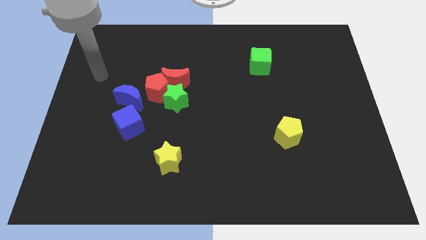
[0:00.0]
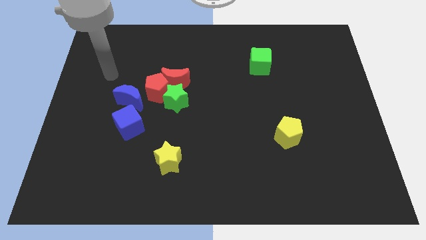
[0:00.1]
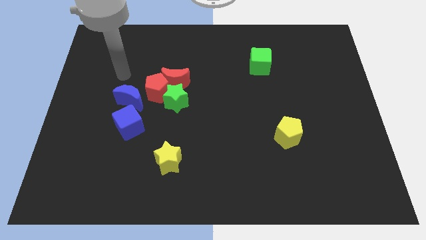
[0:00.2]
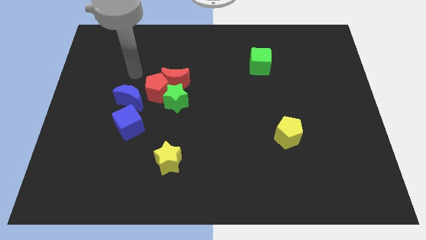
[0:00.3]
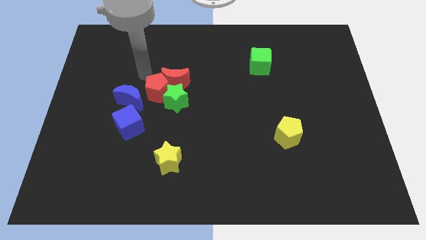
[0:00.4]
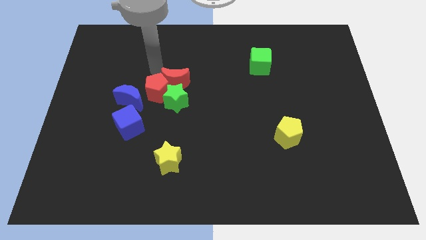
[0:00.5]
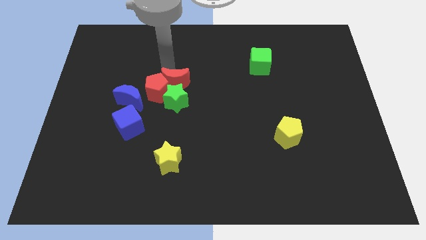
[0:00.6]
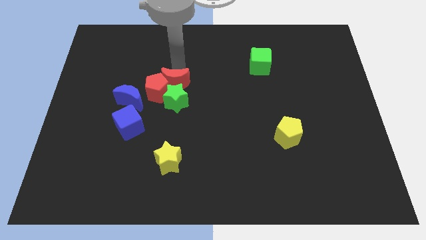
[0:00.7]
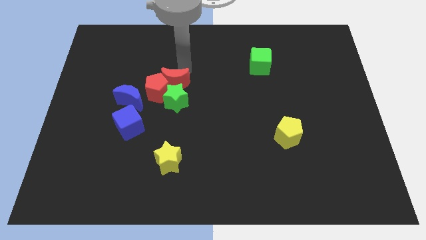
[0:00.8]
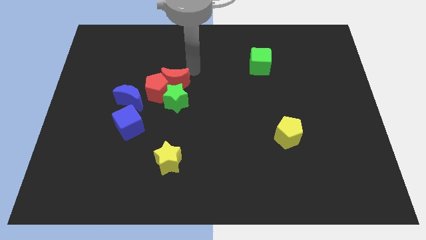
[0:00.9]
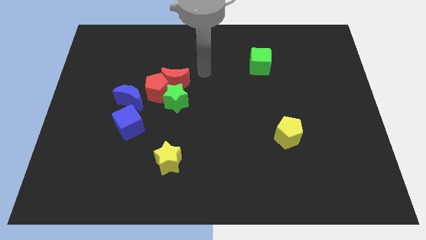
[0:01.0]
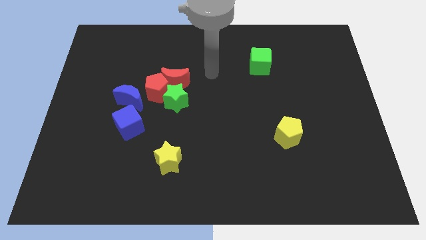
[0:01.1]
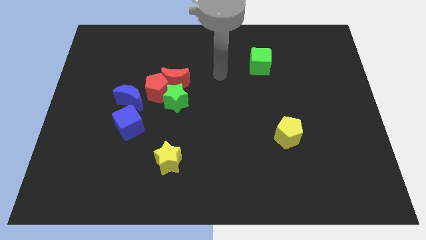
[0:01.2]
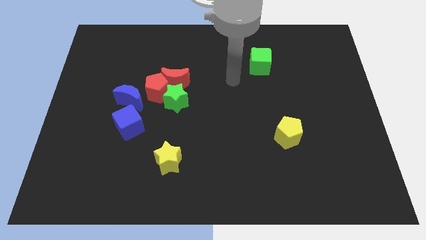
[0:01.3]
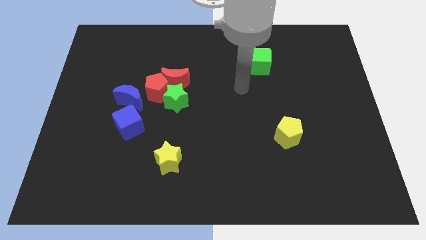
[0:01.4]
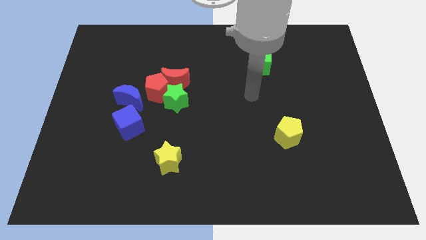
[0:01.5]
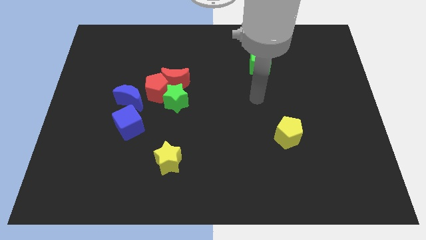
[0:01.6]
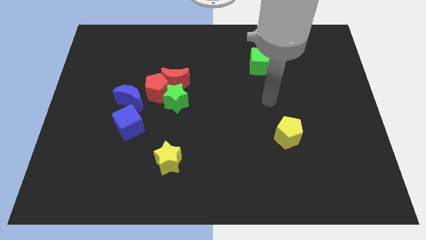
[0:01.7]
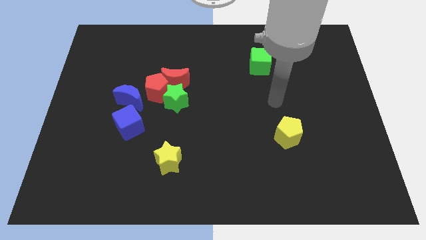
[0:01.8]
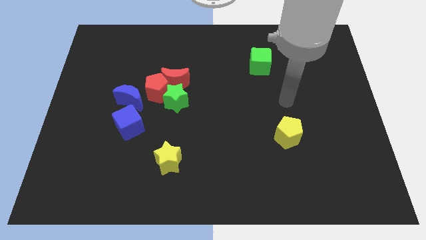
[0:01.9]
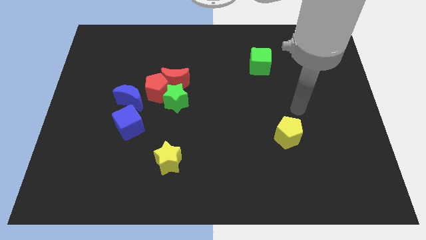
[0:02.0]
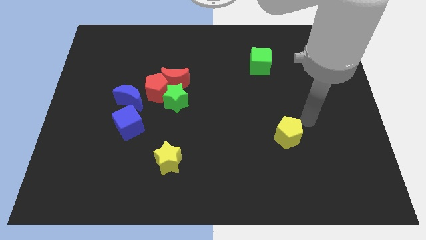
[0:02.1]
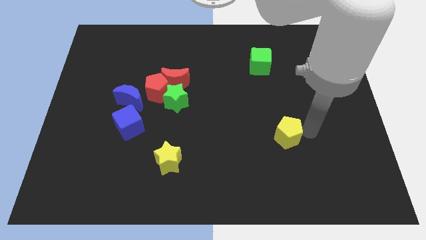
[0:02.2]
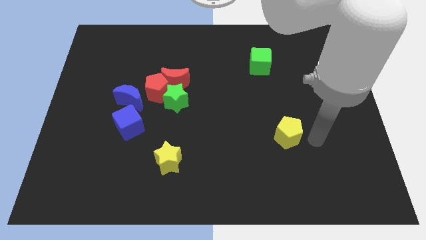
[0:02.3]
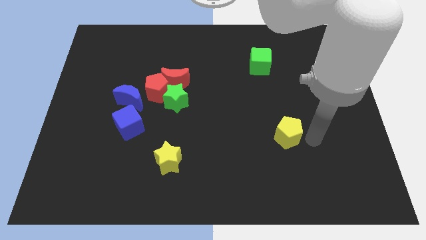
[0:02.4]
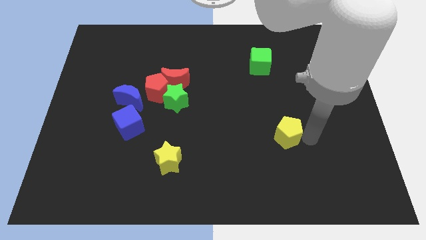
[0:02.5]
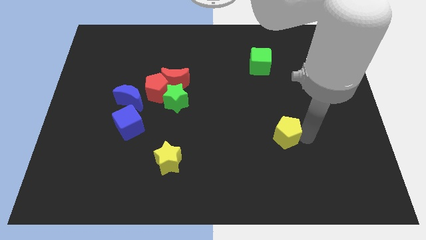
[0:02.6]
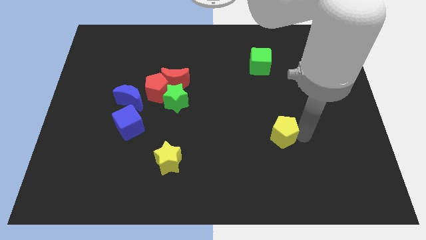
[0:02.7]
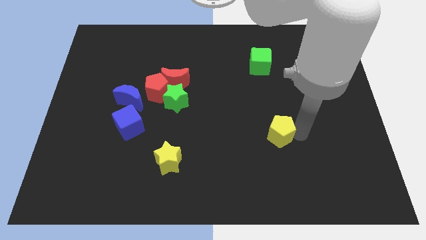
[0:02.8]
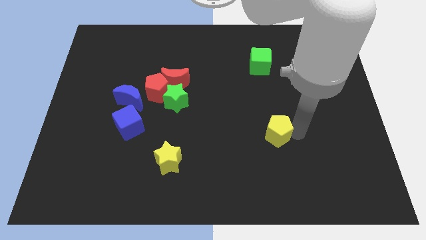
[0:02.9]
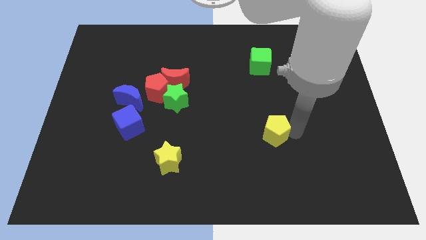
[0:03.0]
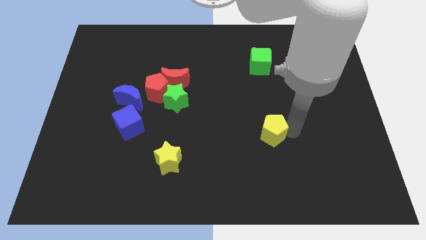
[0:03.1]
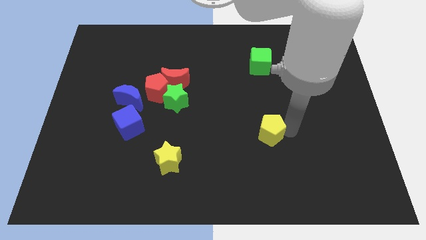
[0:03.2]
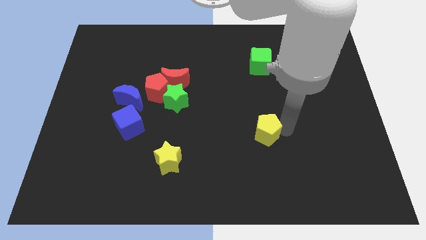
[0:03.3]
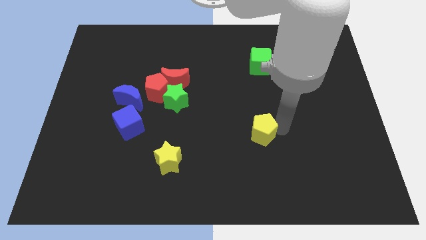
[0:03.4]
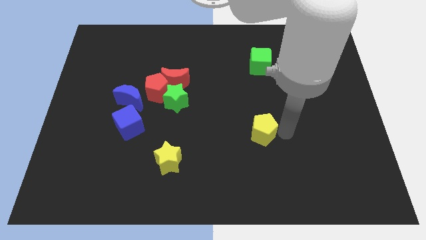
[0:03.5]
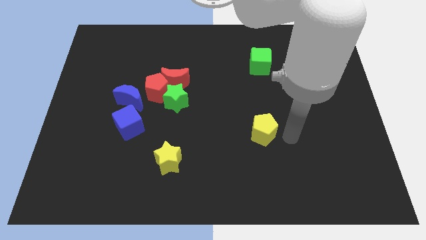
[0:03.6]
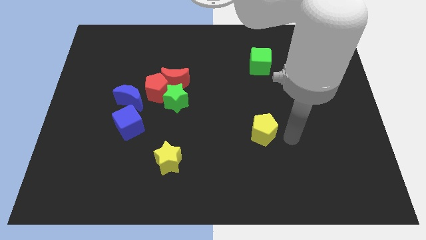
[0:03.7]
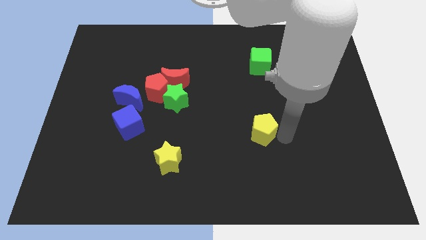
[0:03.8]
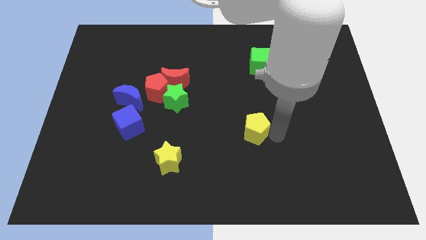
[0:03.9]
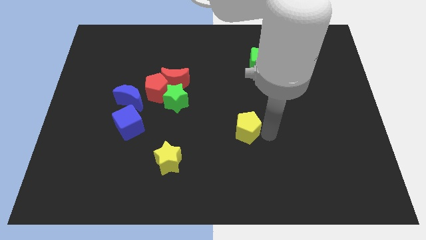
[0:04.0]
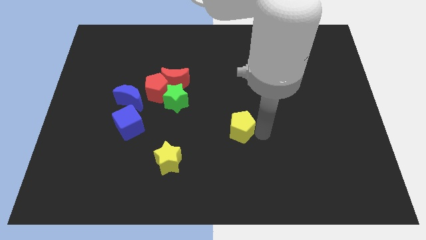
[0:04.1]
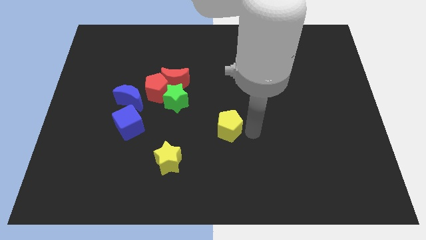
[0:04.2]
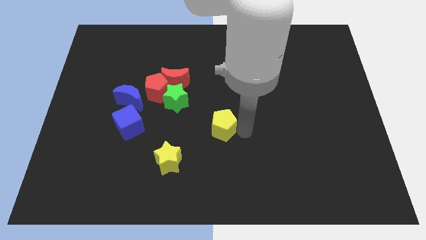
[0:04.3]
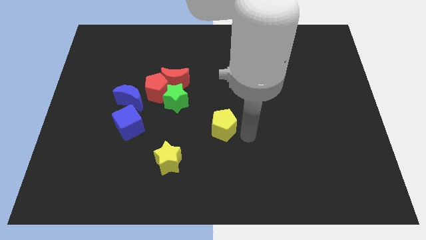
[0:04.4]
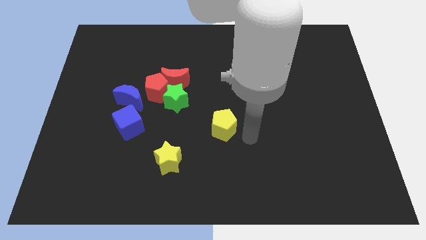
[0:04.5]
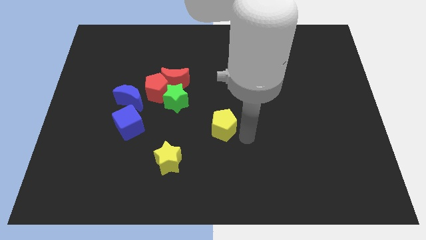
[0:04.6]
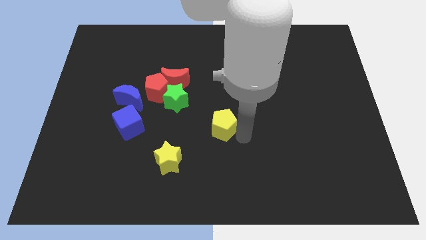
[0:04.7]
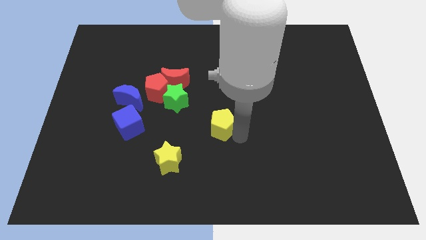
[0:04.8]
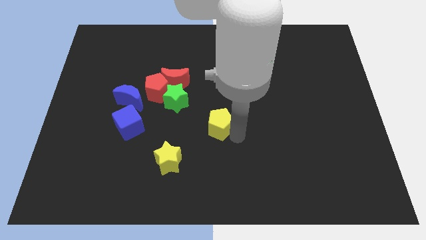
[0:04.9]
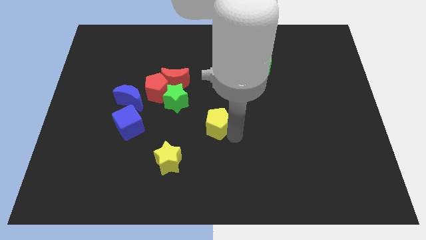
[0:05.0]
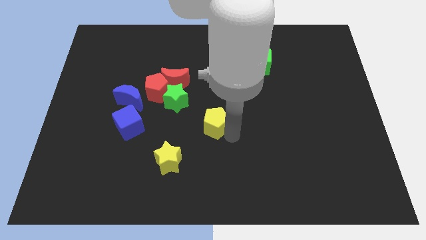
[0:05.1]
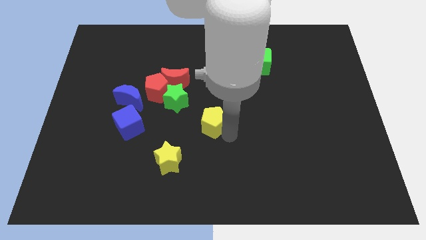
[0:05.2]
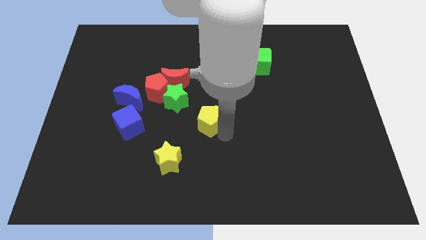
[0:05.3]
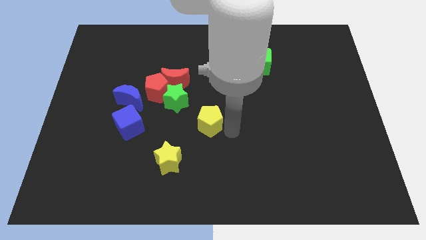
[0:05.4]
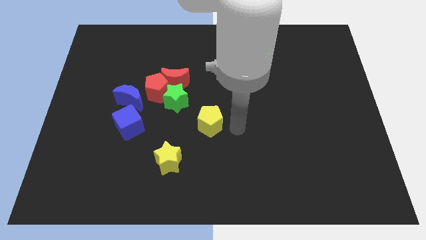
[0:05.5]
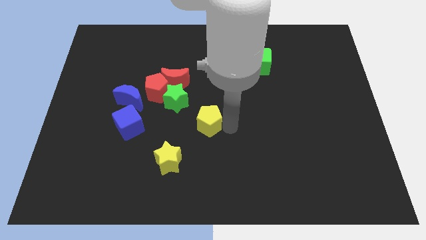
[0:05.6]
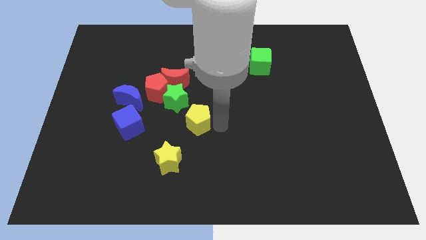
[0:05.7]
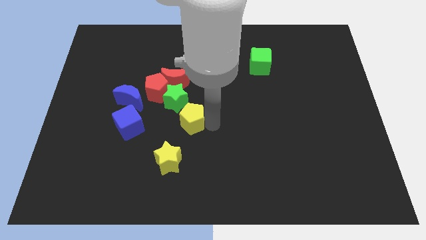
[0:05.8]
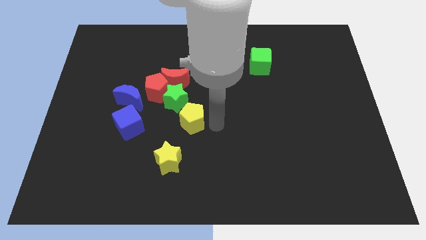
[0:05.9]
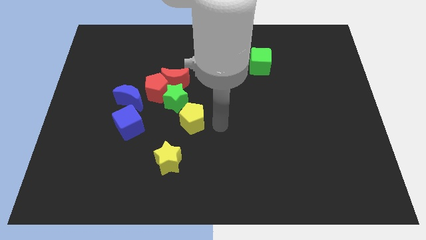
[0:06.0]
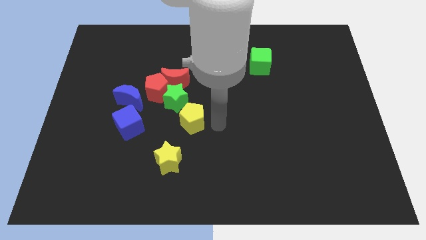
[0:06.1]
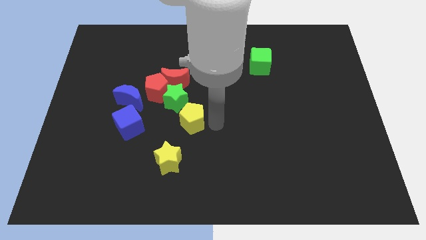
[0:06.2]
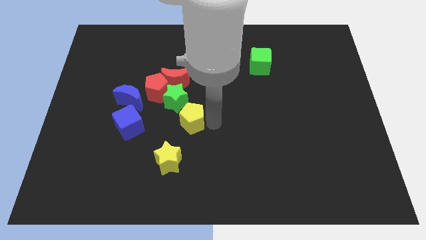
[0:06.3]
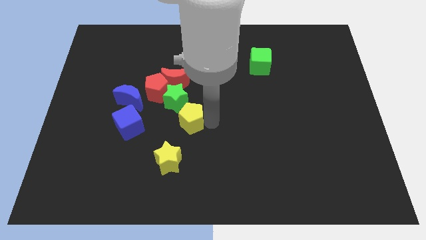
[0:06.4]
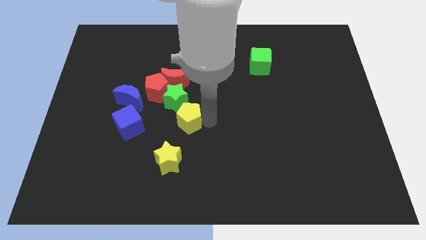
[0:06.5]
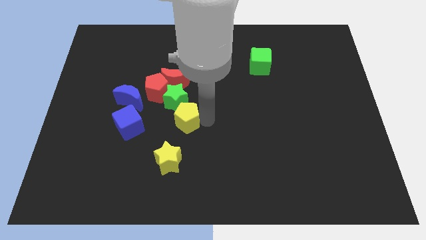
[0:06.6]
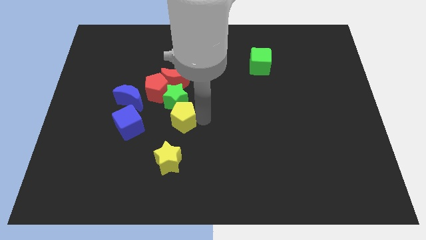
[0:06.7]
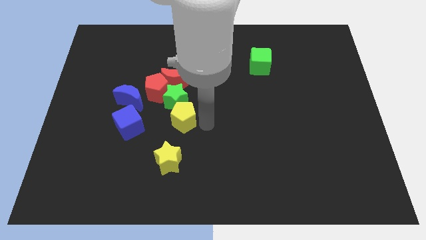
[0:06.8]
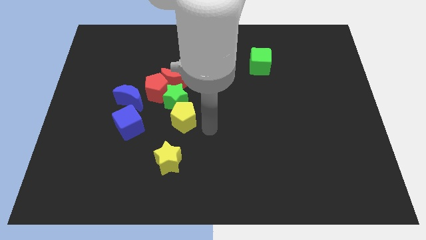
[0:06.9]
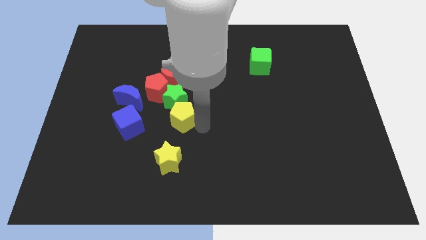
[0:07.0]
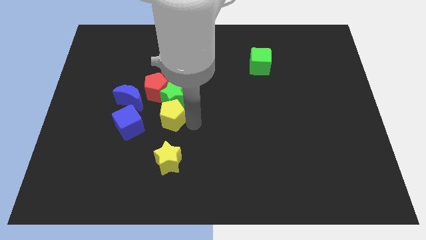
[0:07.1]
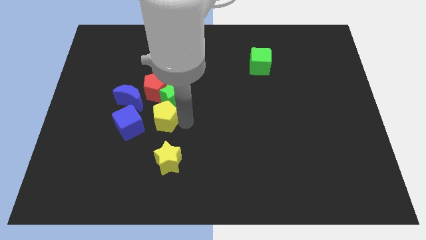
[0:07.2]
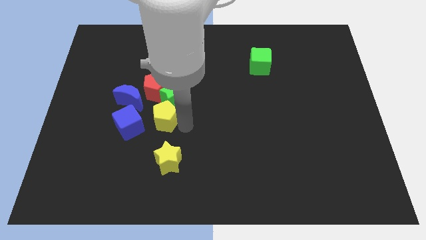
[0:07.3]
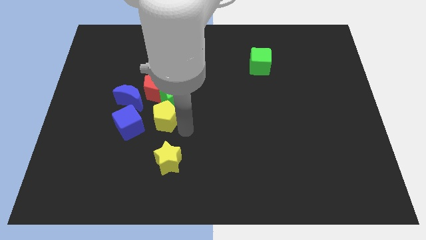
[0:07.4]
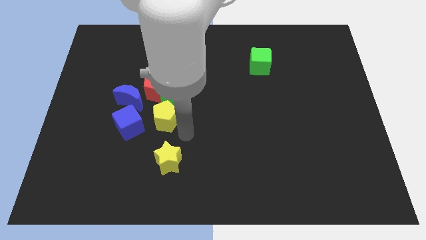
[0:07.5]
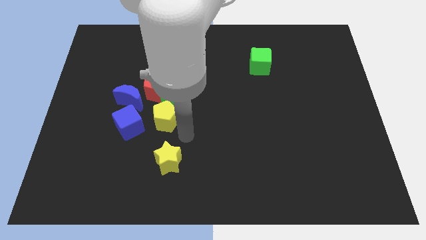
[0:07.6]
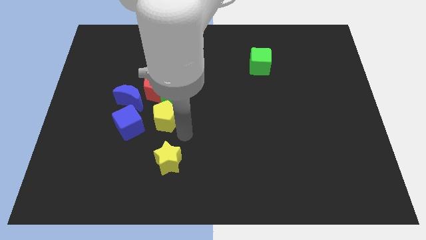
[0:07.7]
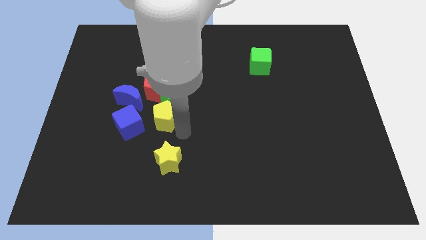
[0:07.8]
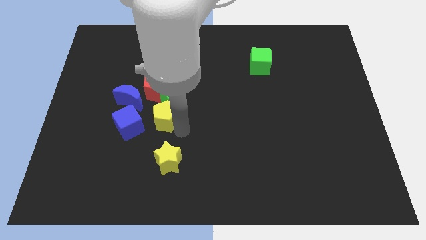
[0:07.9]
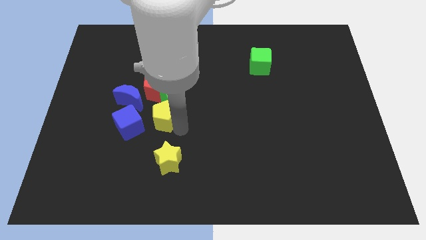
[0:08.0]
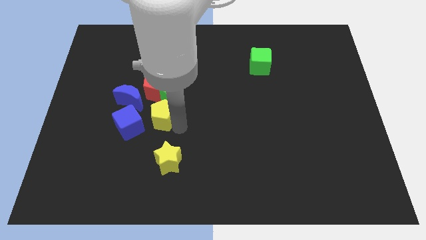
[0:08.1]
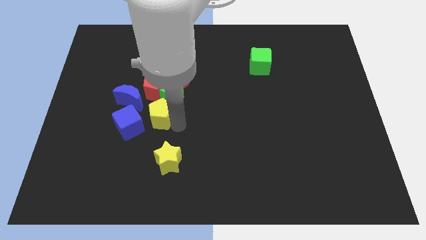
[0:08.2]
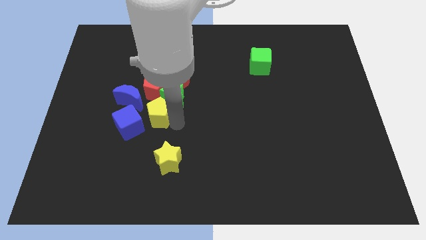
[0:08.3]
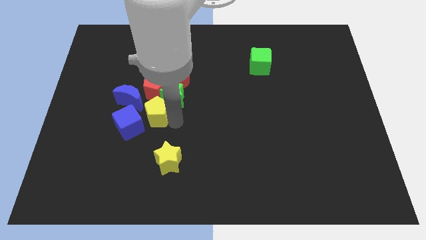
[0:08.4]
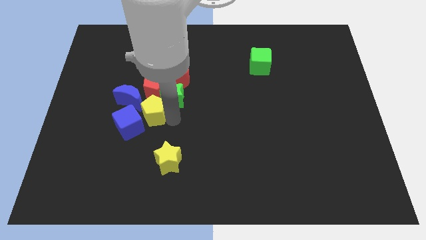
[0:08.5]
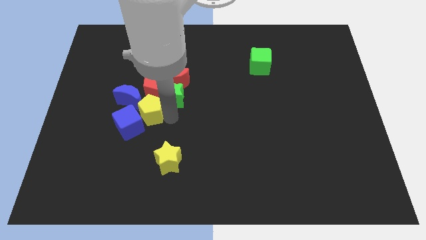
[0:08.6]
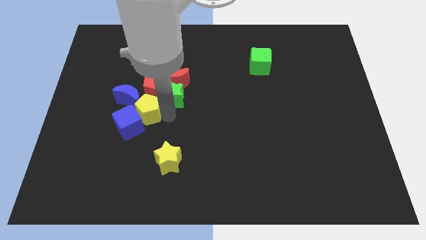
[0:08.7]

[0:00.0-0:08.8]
move the yellow pentagon close to the blue moon
